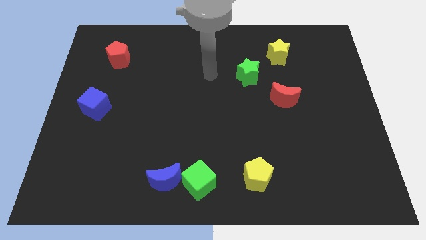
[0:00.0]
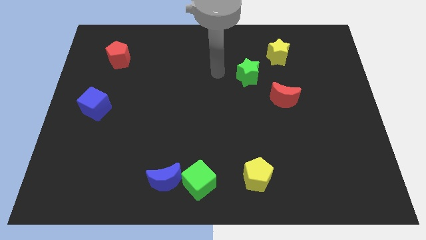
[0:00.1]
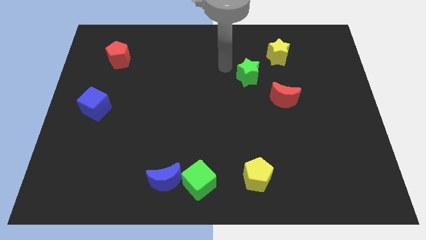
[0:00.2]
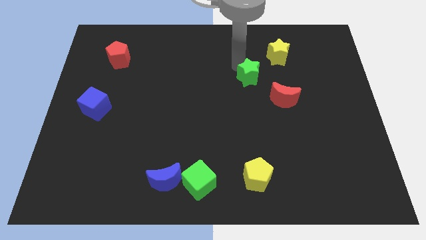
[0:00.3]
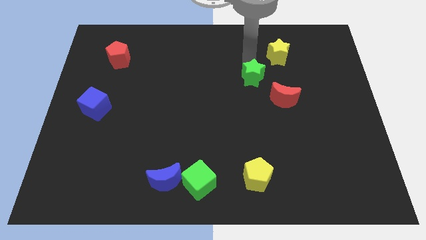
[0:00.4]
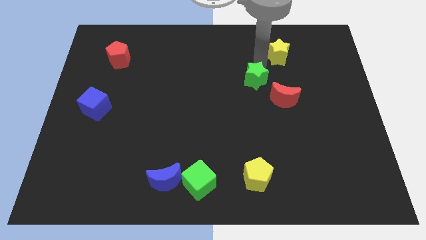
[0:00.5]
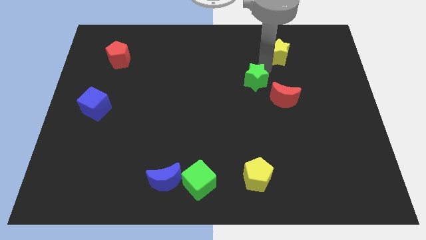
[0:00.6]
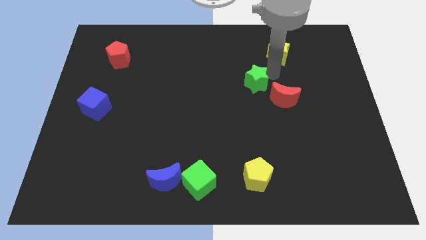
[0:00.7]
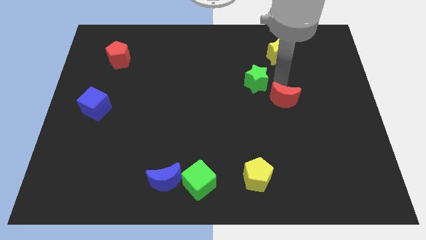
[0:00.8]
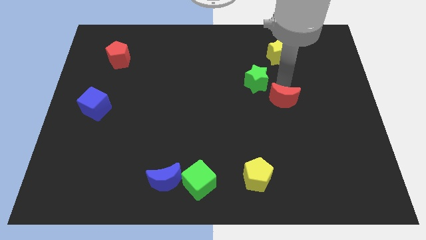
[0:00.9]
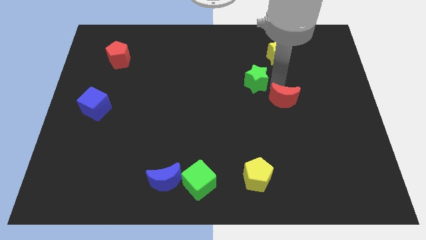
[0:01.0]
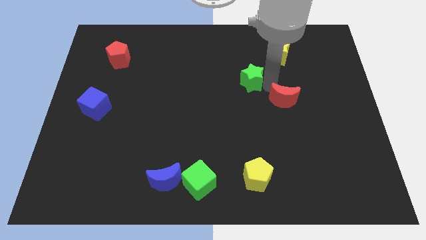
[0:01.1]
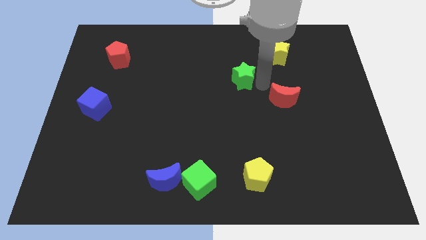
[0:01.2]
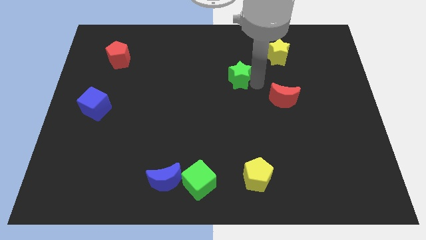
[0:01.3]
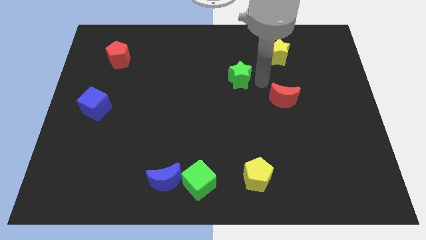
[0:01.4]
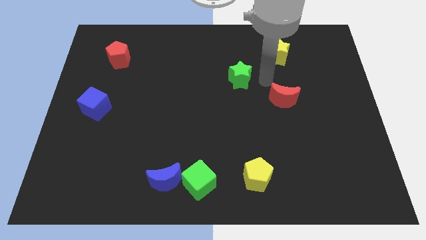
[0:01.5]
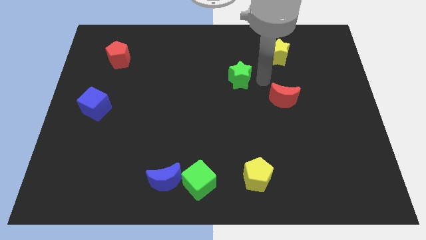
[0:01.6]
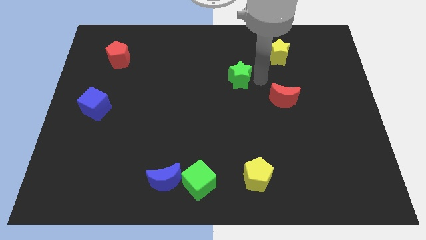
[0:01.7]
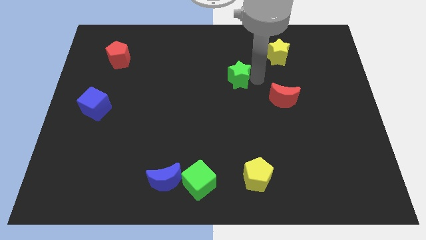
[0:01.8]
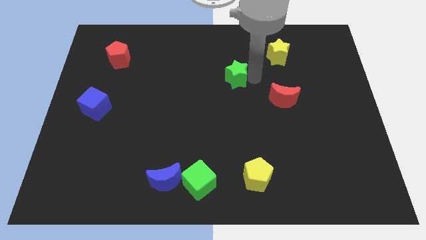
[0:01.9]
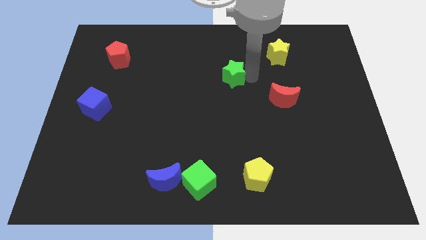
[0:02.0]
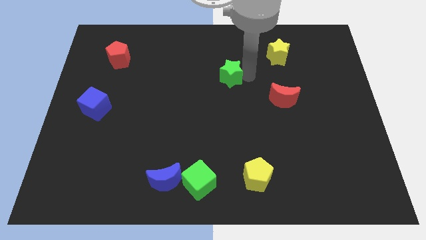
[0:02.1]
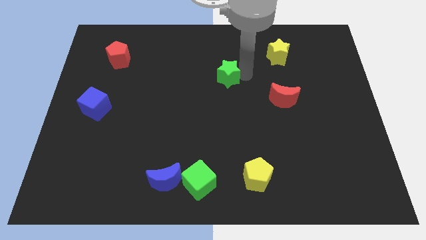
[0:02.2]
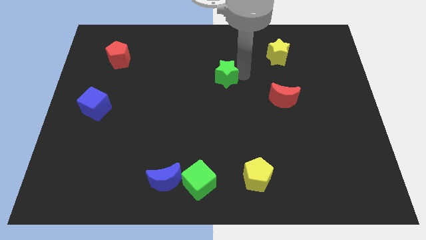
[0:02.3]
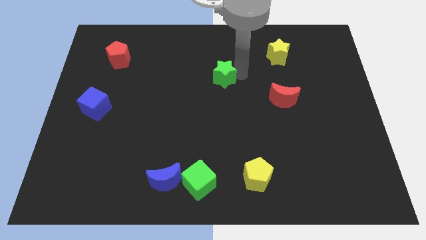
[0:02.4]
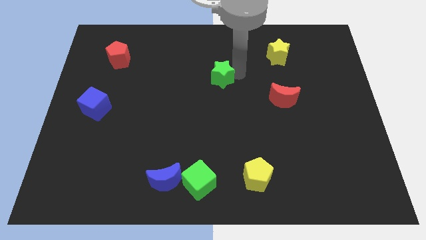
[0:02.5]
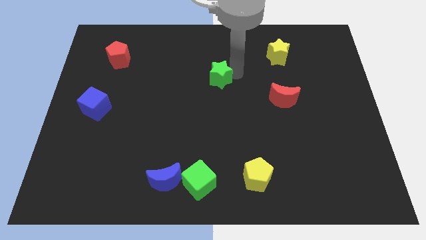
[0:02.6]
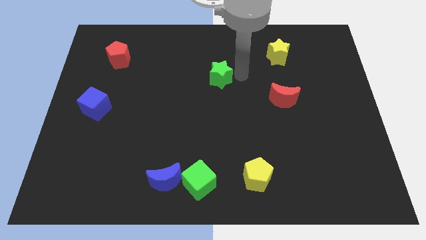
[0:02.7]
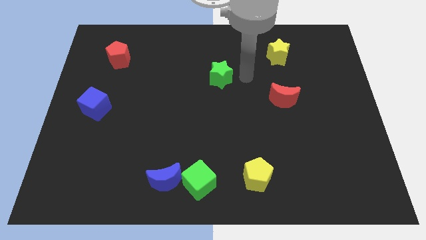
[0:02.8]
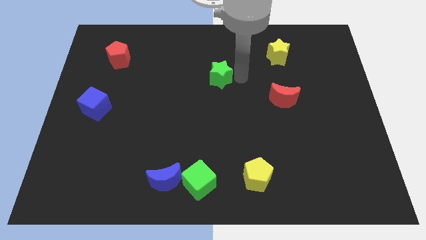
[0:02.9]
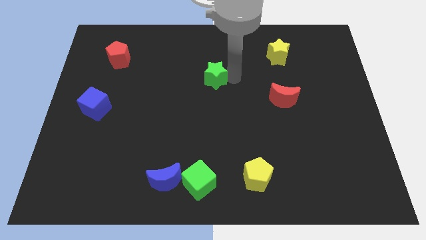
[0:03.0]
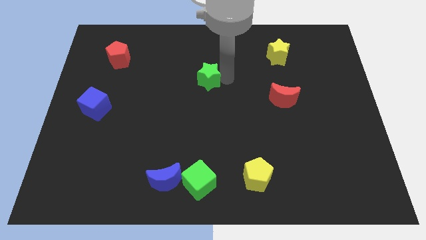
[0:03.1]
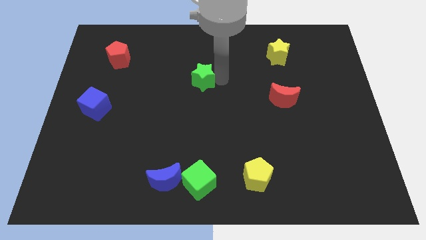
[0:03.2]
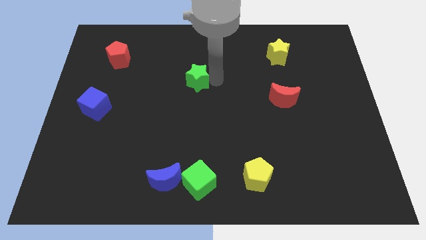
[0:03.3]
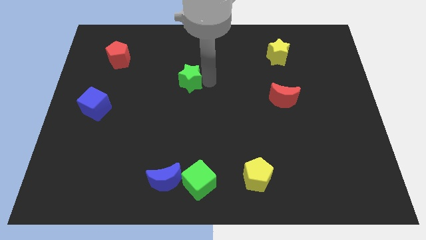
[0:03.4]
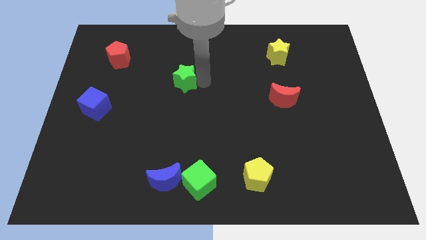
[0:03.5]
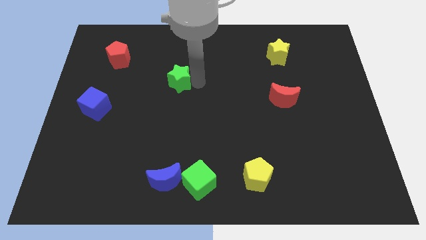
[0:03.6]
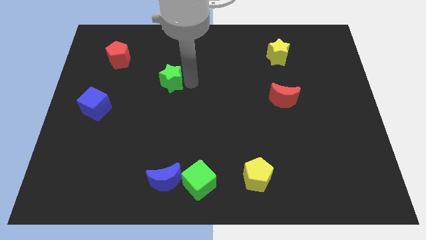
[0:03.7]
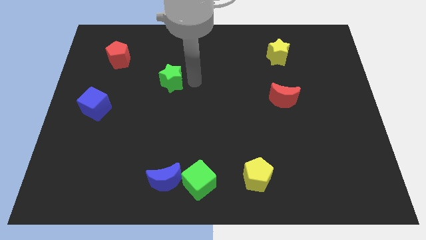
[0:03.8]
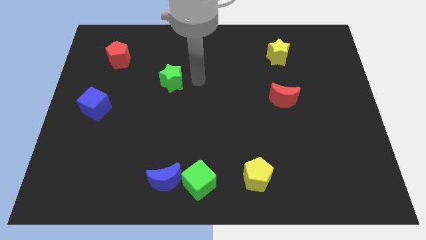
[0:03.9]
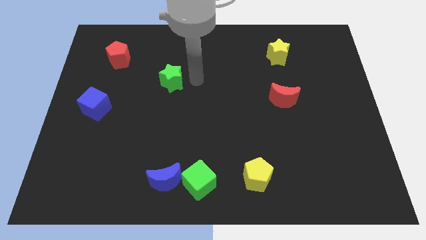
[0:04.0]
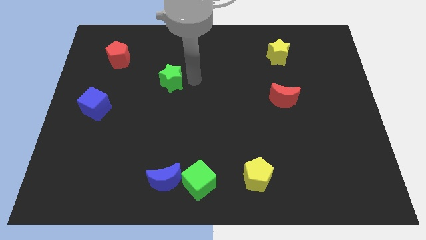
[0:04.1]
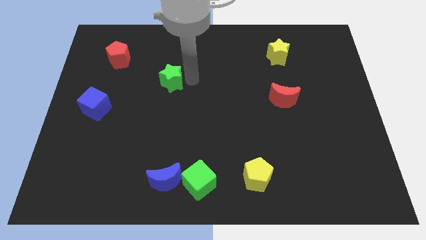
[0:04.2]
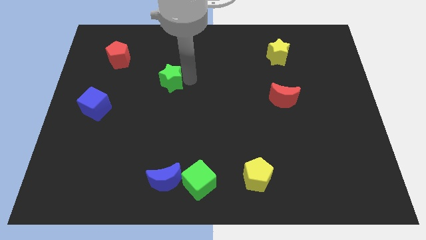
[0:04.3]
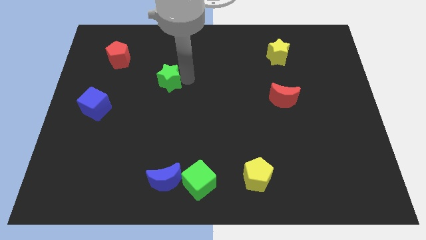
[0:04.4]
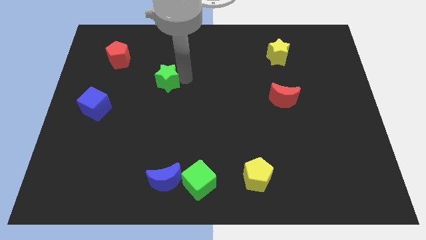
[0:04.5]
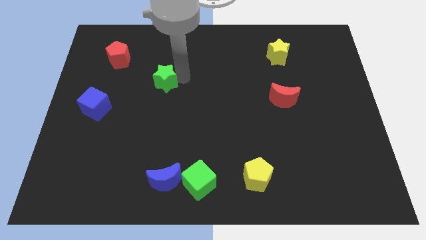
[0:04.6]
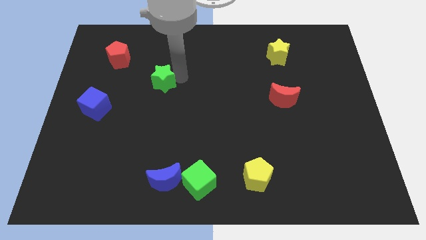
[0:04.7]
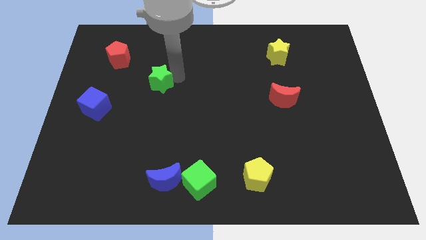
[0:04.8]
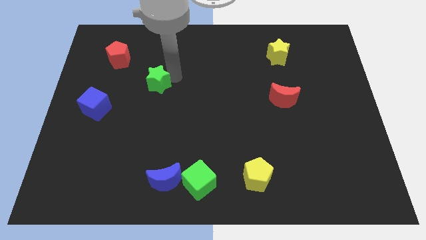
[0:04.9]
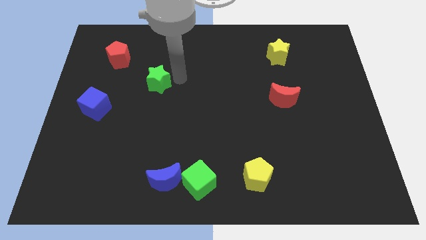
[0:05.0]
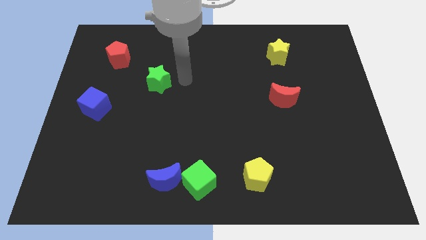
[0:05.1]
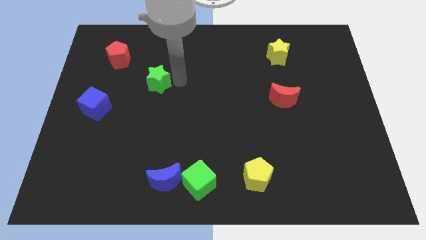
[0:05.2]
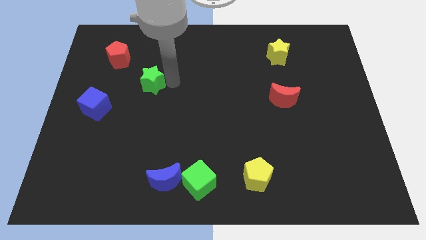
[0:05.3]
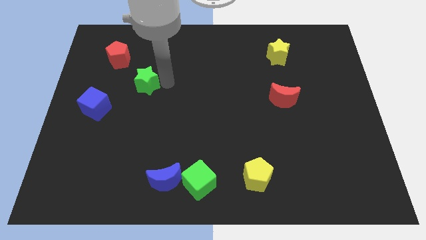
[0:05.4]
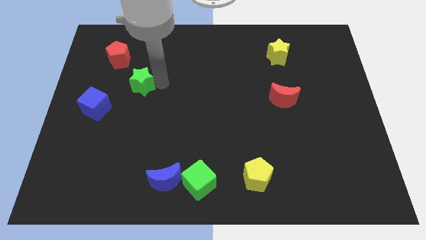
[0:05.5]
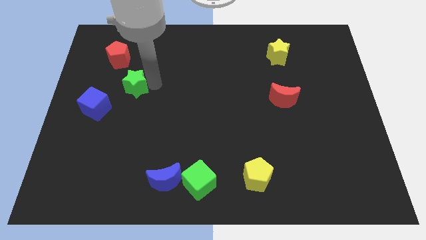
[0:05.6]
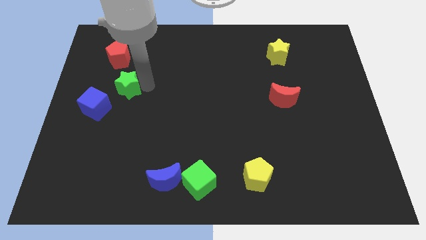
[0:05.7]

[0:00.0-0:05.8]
put the green star to the bottom side of the red pentagon
